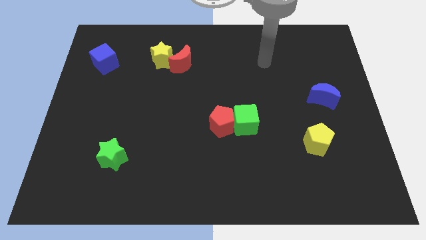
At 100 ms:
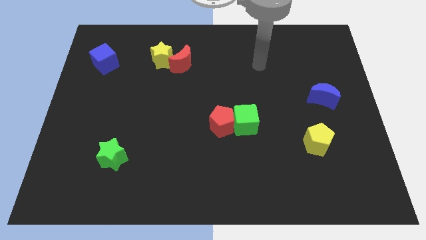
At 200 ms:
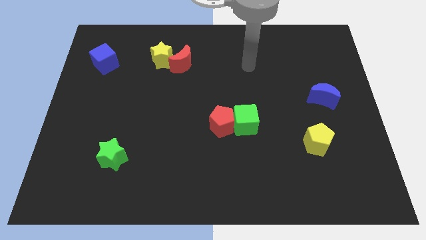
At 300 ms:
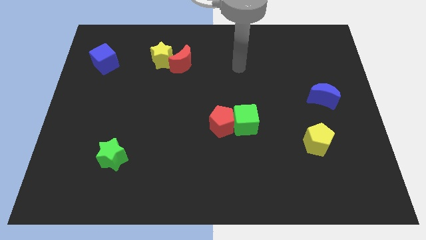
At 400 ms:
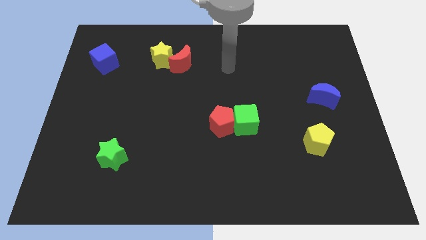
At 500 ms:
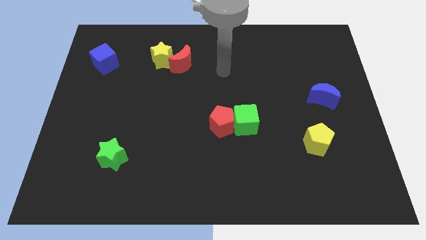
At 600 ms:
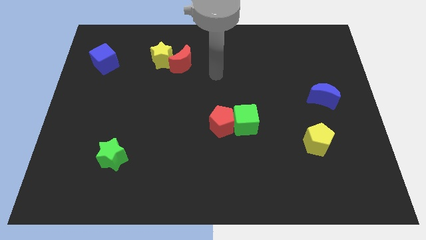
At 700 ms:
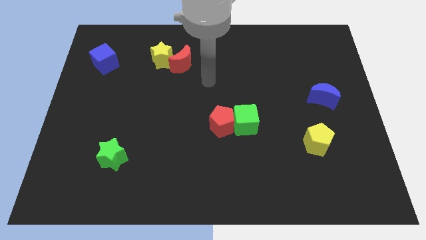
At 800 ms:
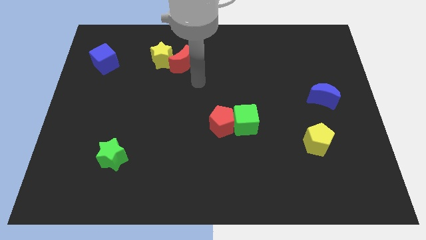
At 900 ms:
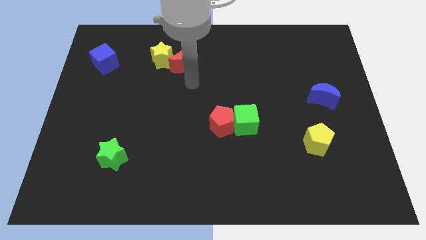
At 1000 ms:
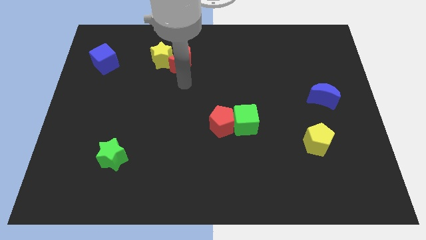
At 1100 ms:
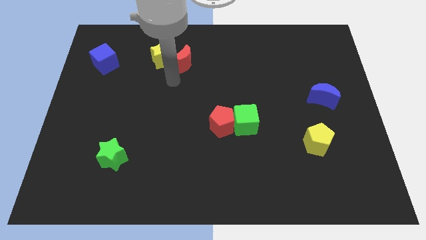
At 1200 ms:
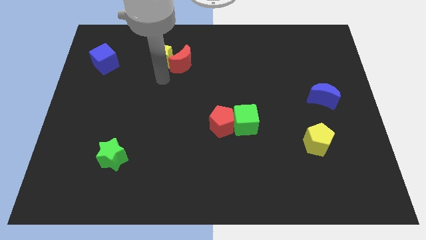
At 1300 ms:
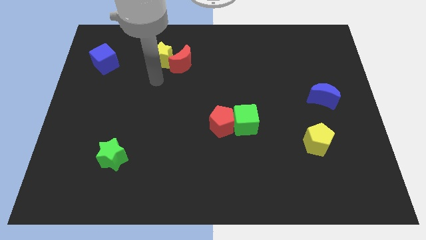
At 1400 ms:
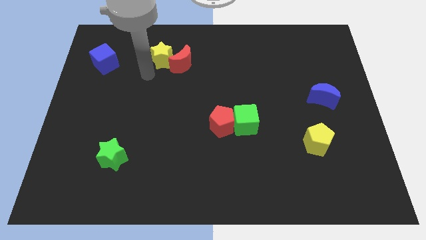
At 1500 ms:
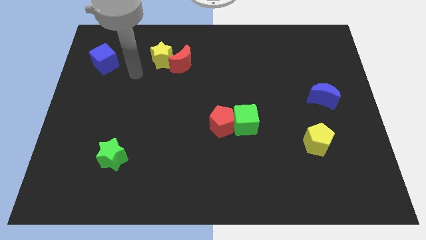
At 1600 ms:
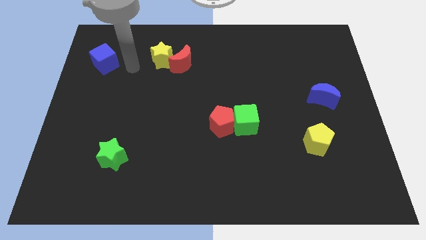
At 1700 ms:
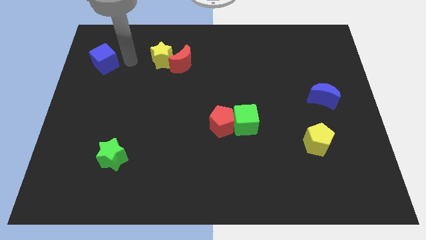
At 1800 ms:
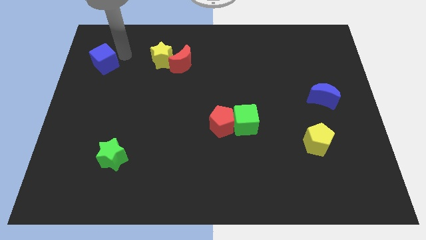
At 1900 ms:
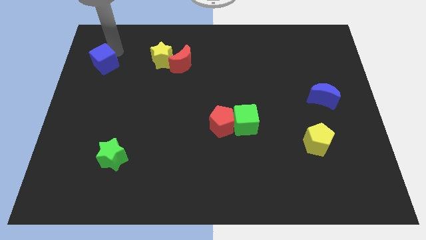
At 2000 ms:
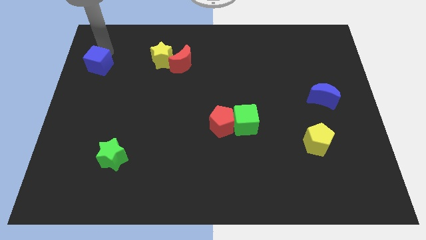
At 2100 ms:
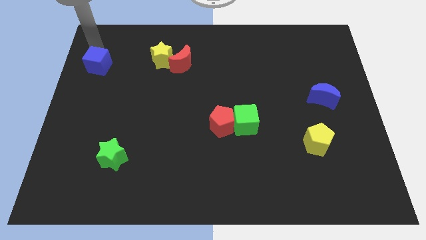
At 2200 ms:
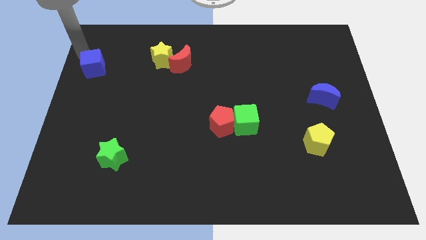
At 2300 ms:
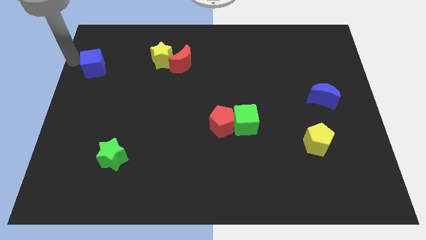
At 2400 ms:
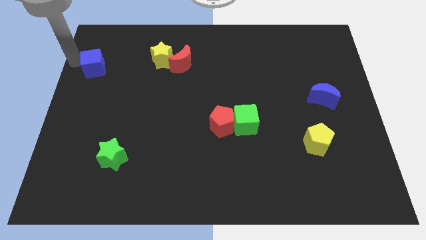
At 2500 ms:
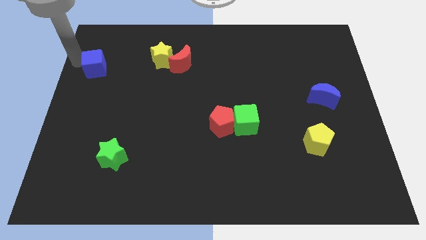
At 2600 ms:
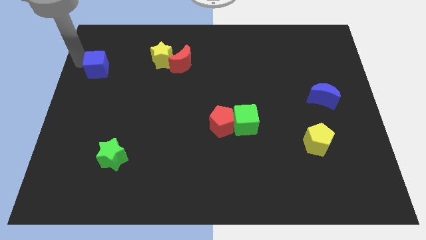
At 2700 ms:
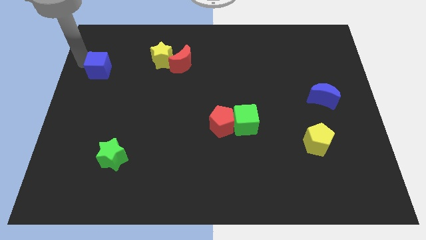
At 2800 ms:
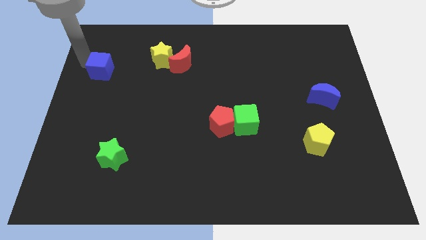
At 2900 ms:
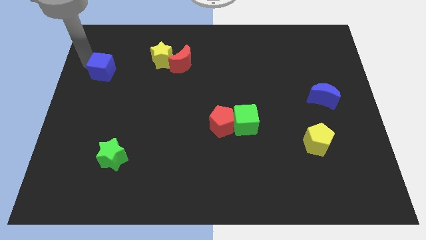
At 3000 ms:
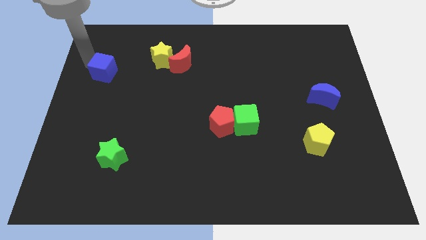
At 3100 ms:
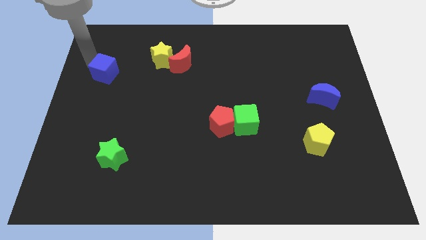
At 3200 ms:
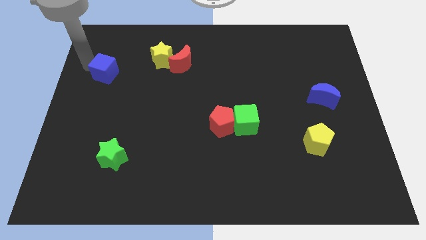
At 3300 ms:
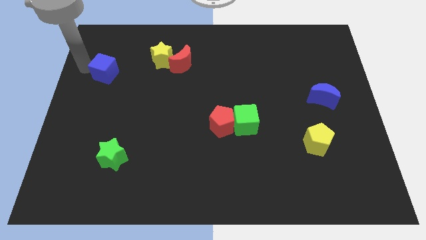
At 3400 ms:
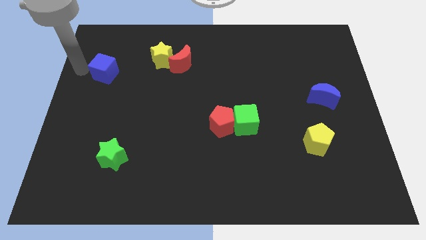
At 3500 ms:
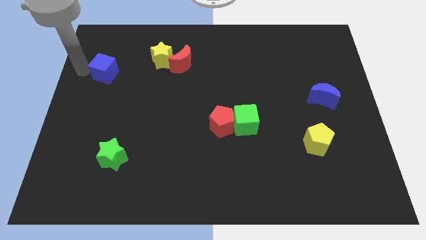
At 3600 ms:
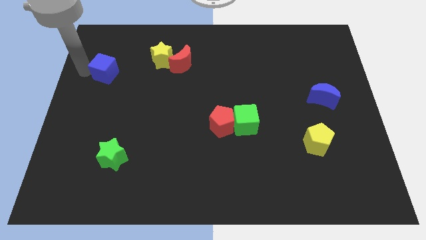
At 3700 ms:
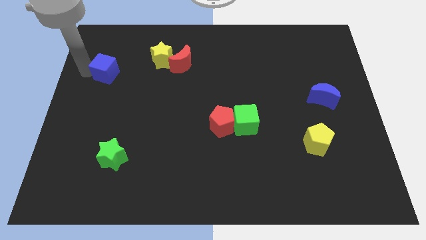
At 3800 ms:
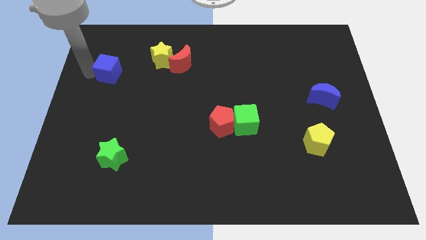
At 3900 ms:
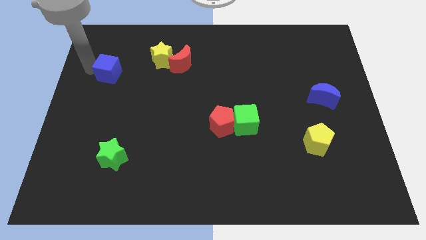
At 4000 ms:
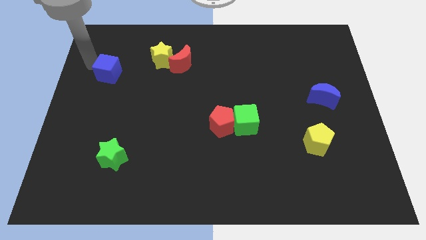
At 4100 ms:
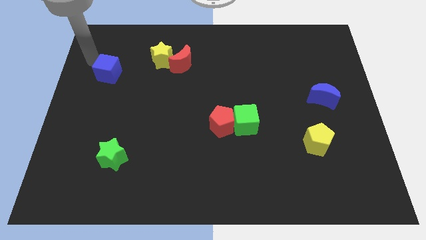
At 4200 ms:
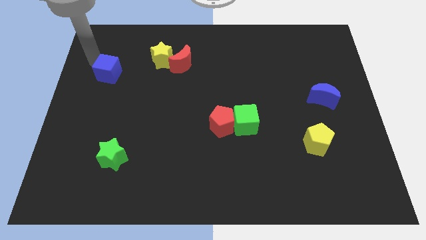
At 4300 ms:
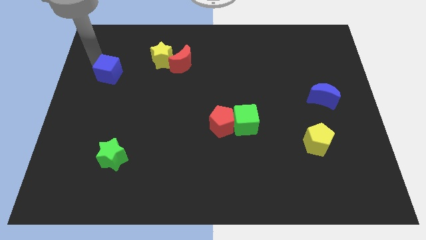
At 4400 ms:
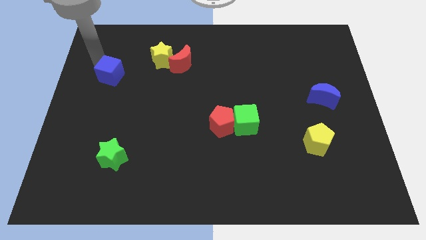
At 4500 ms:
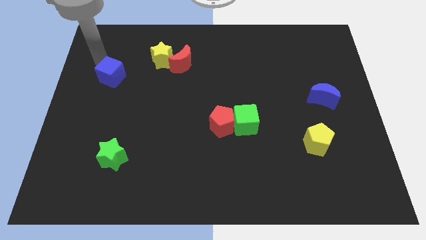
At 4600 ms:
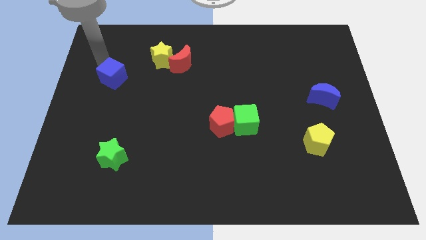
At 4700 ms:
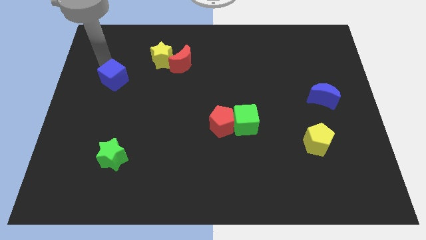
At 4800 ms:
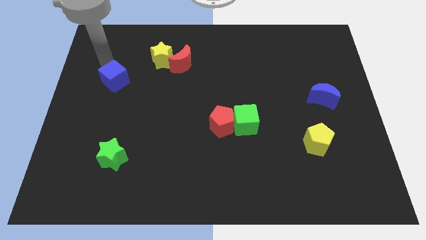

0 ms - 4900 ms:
move the blue cube down and then to the right a bit

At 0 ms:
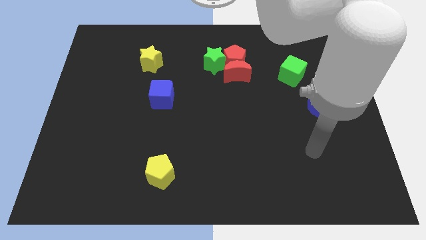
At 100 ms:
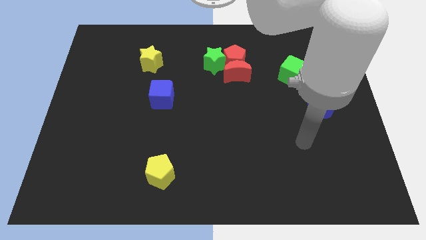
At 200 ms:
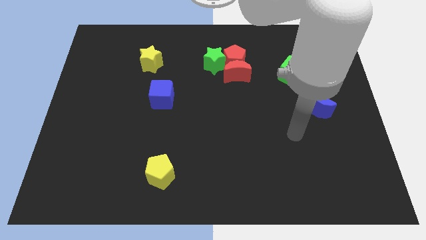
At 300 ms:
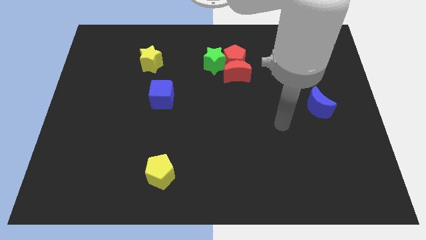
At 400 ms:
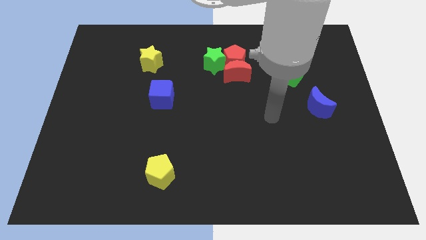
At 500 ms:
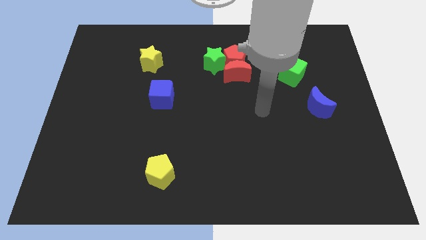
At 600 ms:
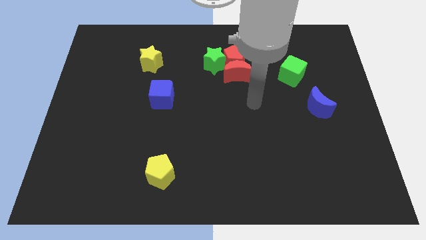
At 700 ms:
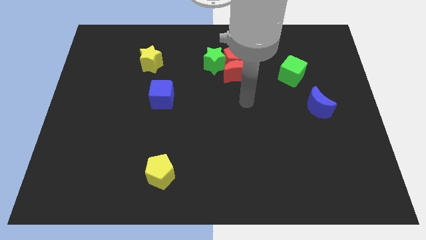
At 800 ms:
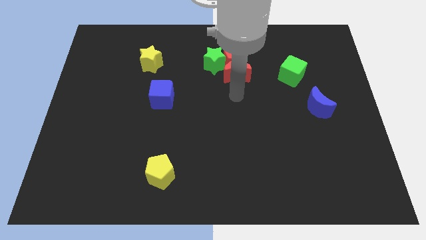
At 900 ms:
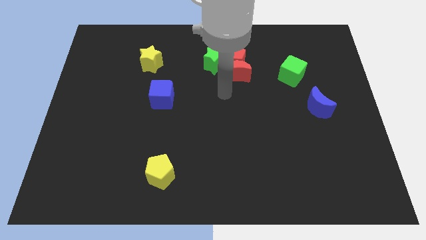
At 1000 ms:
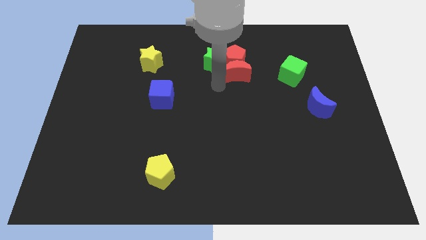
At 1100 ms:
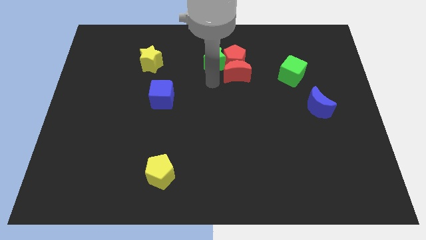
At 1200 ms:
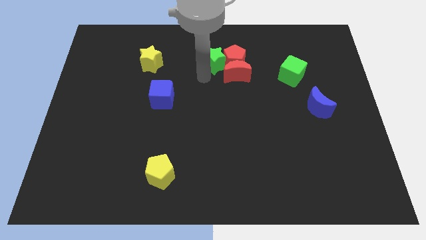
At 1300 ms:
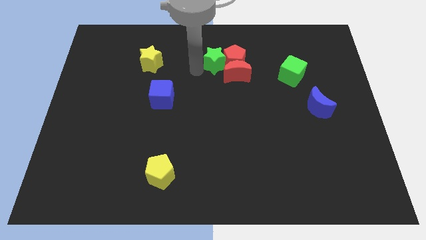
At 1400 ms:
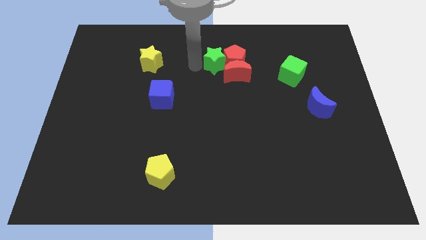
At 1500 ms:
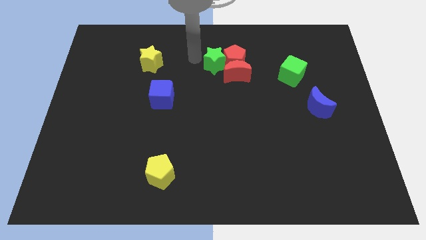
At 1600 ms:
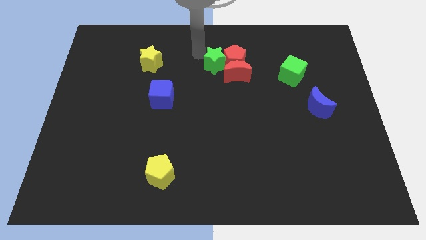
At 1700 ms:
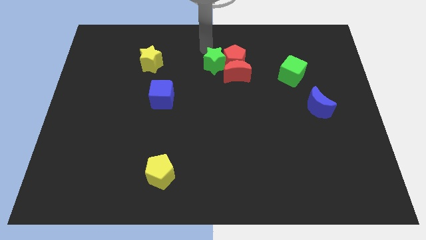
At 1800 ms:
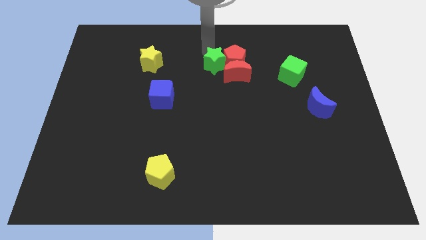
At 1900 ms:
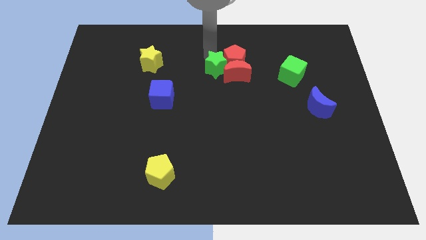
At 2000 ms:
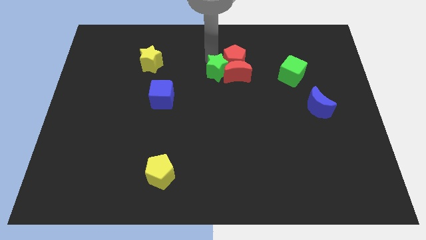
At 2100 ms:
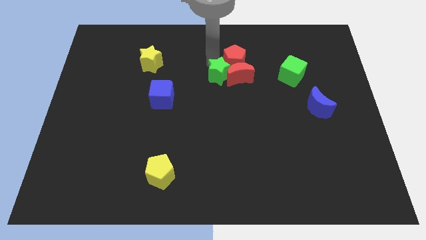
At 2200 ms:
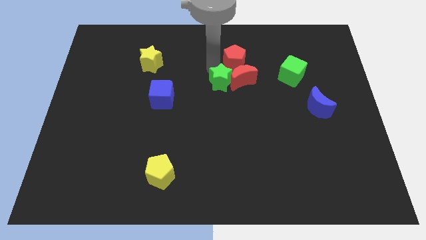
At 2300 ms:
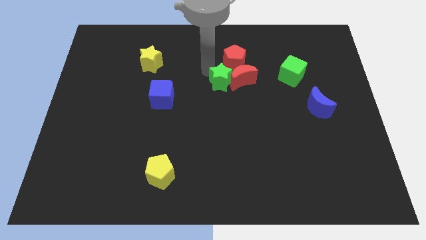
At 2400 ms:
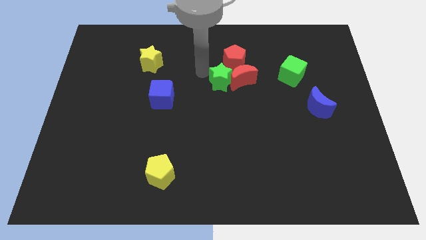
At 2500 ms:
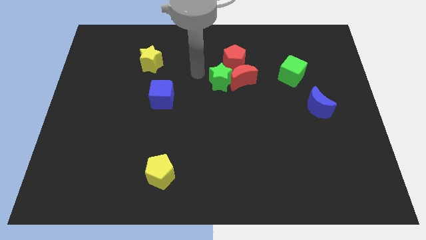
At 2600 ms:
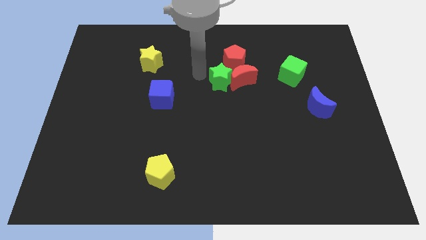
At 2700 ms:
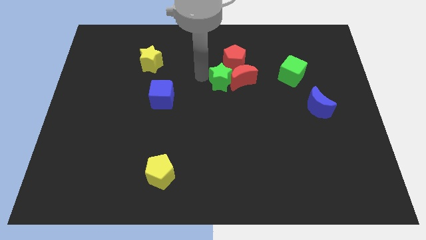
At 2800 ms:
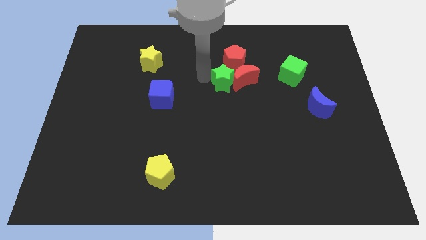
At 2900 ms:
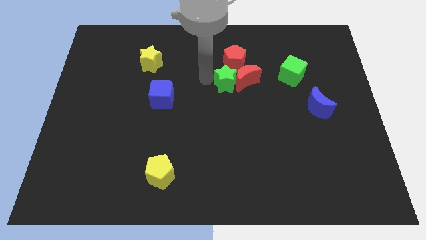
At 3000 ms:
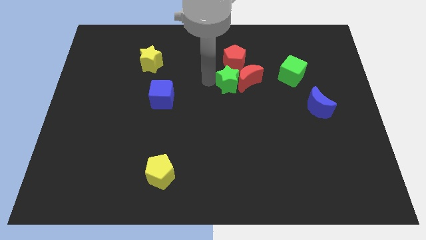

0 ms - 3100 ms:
slightly move the green star down and then to the right

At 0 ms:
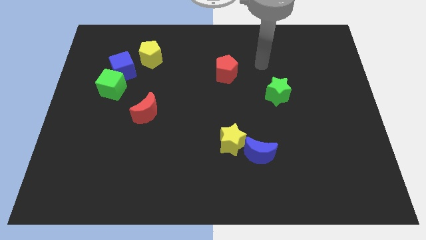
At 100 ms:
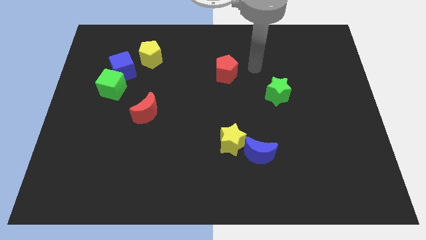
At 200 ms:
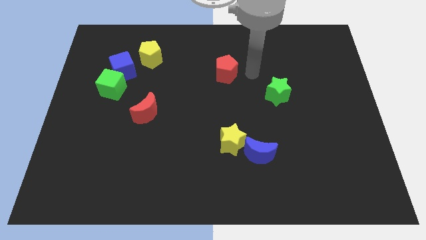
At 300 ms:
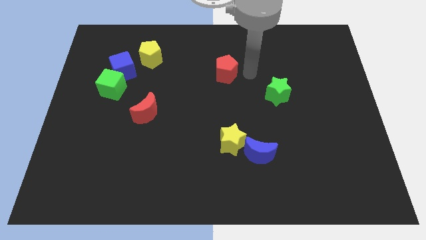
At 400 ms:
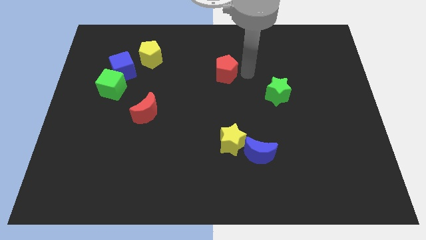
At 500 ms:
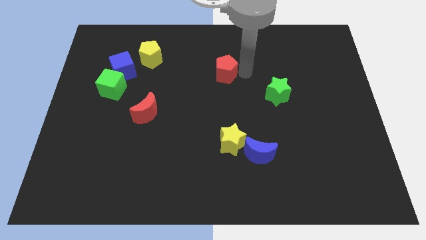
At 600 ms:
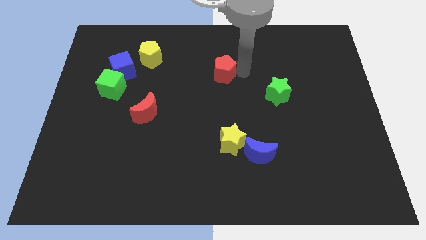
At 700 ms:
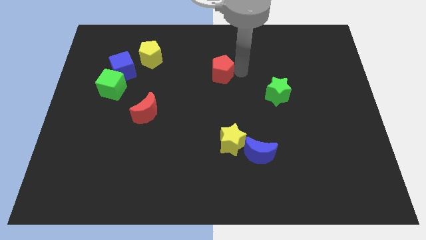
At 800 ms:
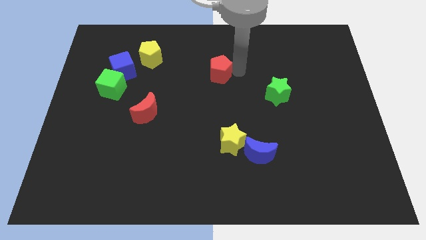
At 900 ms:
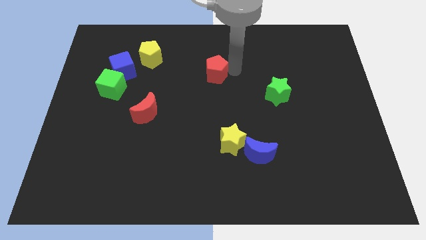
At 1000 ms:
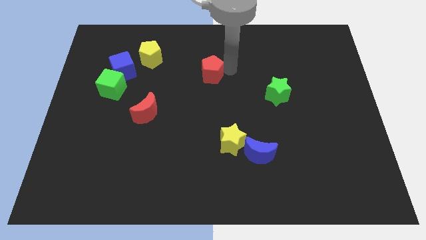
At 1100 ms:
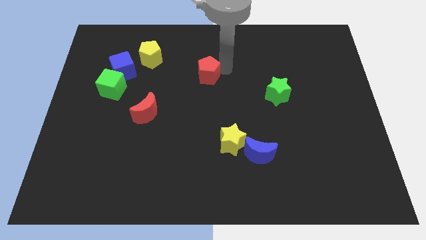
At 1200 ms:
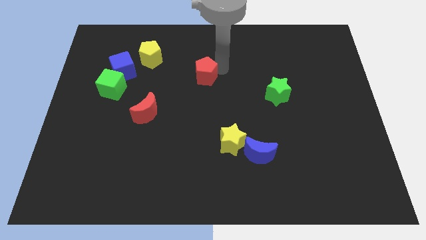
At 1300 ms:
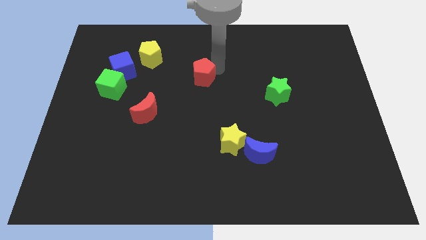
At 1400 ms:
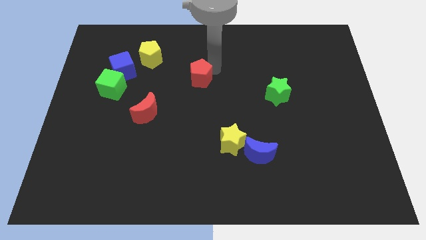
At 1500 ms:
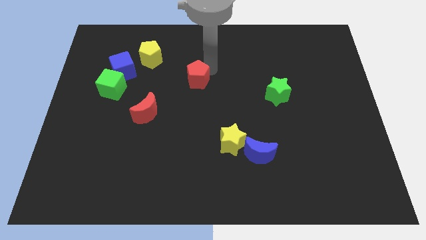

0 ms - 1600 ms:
slide the red pentagon somewhat to the left
